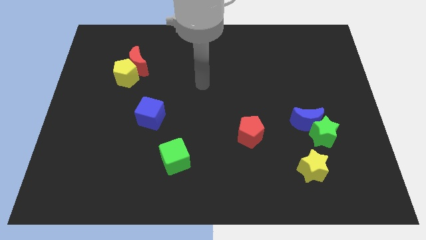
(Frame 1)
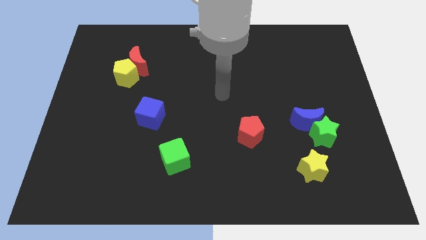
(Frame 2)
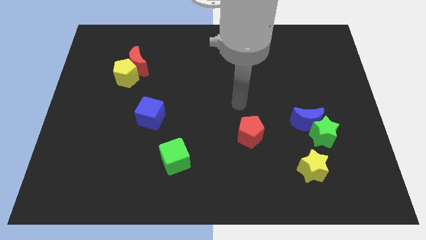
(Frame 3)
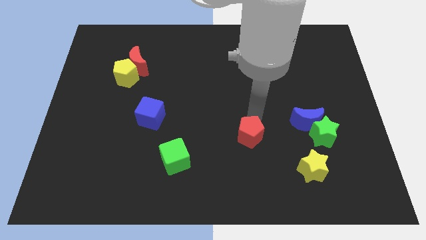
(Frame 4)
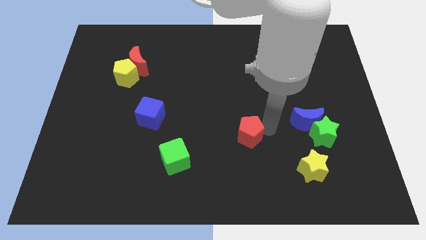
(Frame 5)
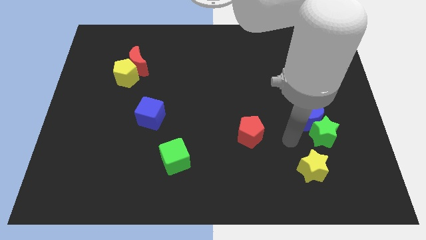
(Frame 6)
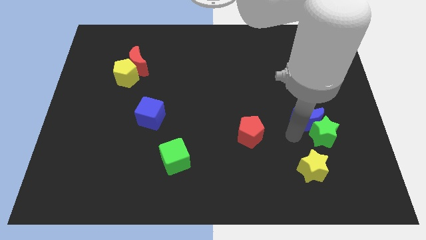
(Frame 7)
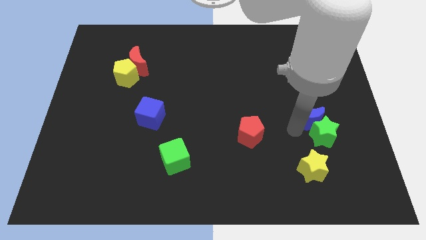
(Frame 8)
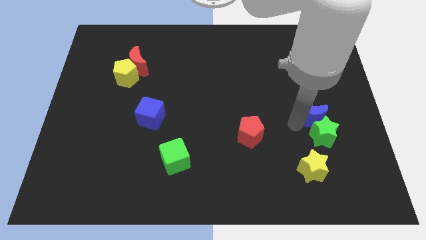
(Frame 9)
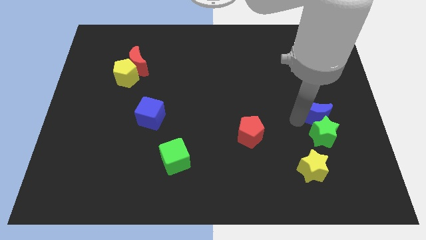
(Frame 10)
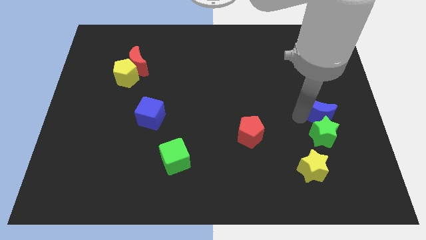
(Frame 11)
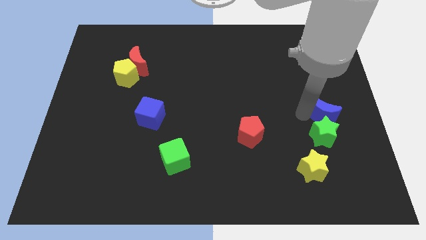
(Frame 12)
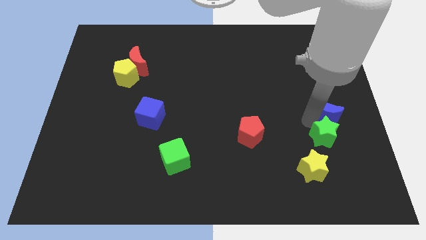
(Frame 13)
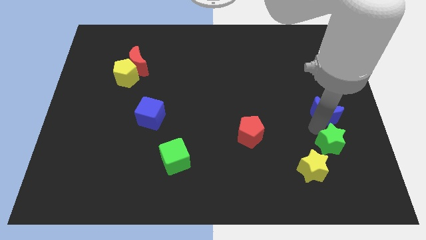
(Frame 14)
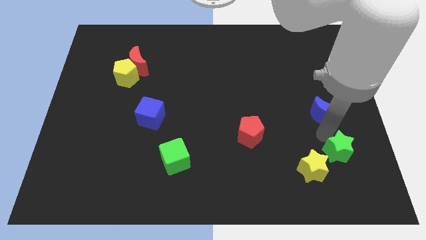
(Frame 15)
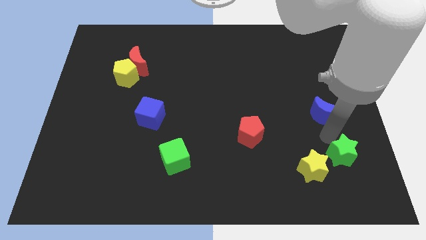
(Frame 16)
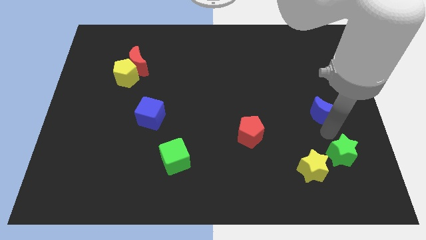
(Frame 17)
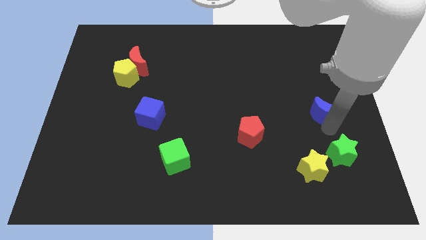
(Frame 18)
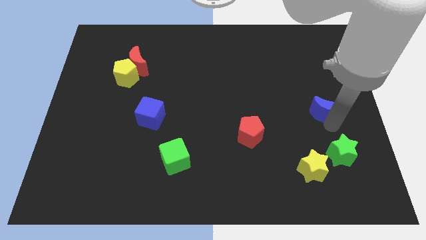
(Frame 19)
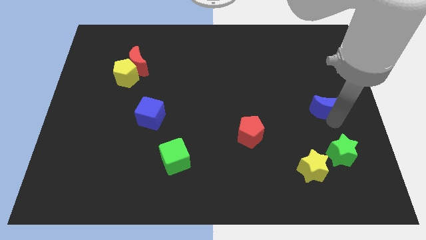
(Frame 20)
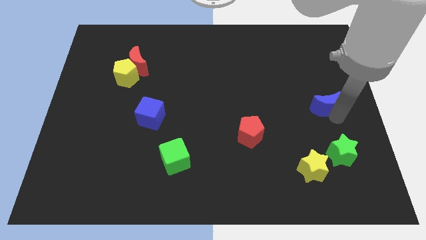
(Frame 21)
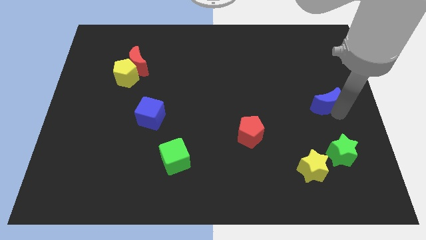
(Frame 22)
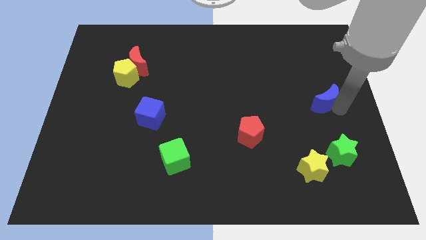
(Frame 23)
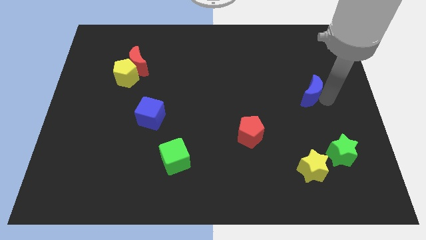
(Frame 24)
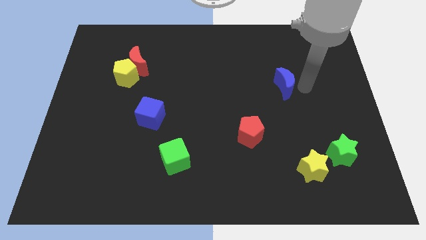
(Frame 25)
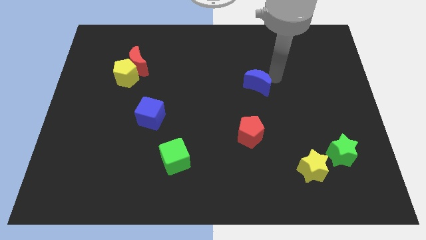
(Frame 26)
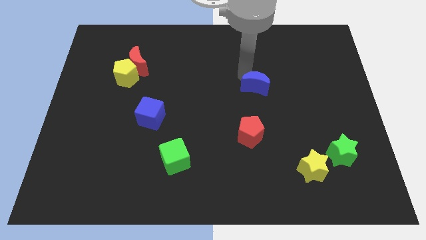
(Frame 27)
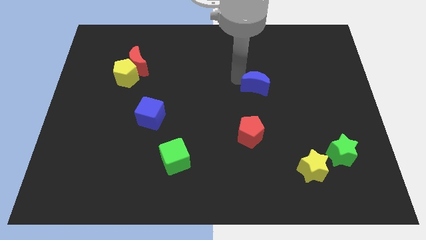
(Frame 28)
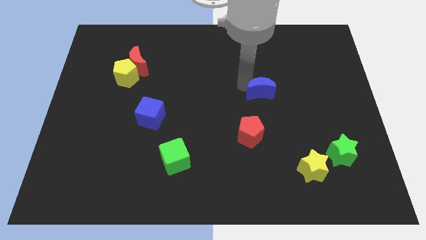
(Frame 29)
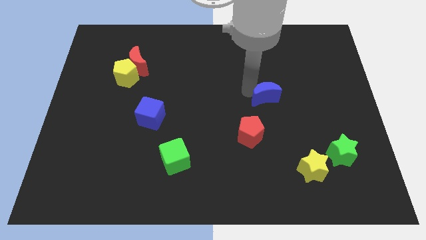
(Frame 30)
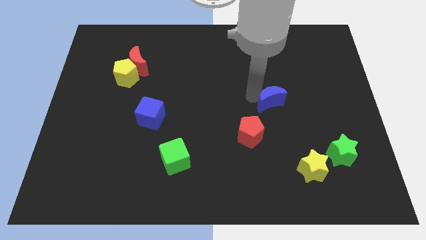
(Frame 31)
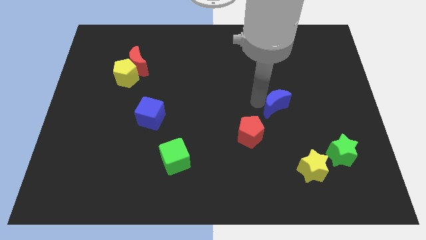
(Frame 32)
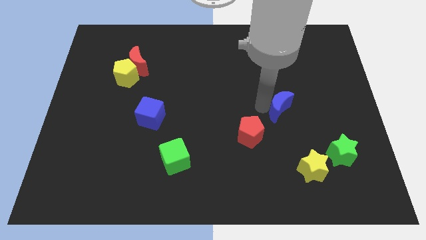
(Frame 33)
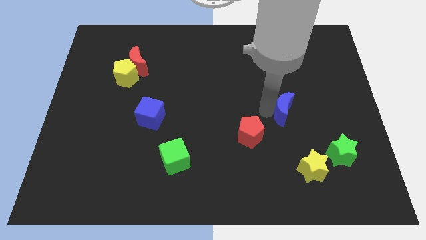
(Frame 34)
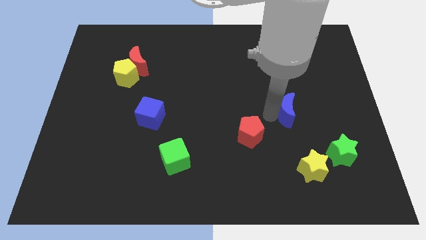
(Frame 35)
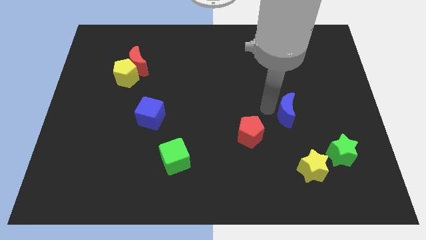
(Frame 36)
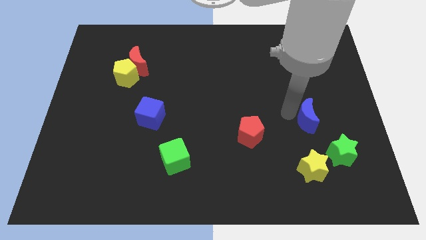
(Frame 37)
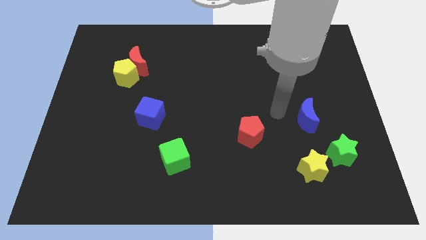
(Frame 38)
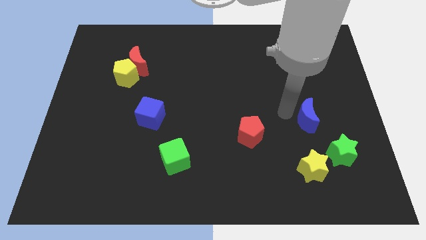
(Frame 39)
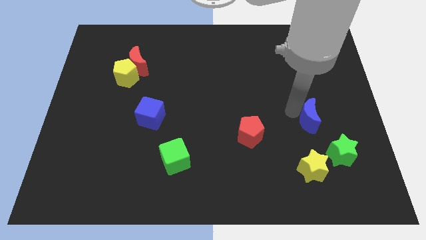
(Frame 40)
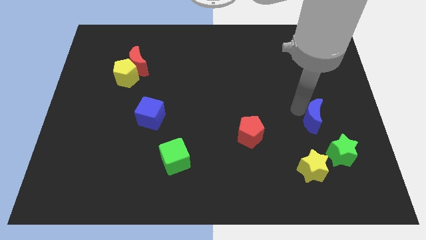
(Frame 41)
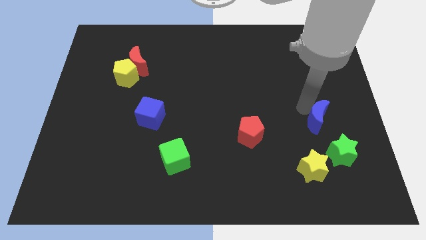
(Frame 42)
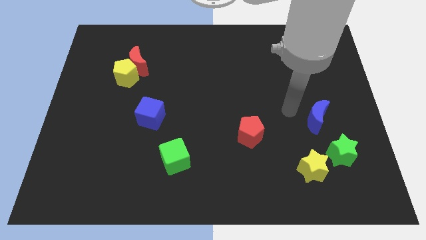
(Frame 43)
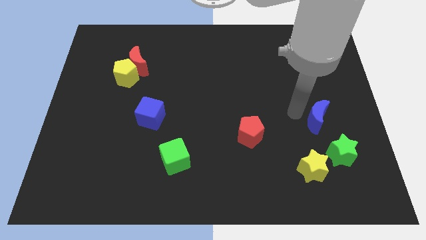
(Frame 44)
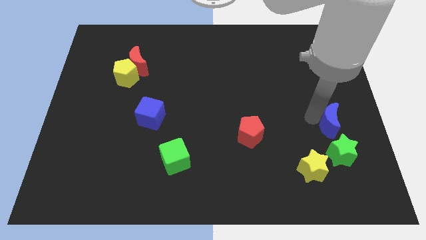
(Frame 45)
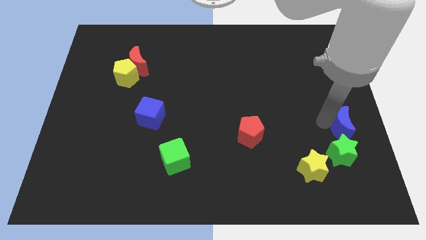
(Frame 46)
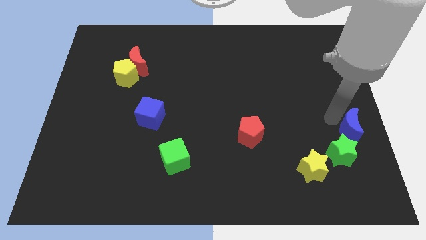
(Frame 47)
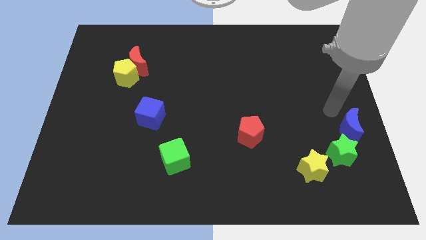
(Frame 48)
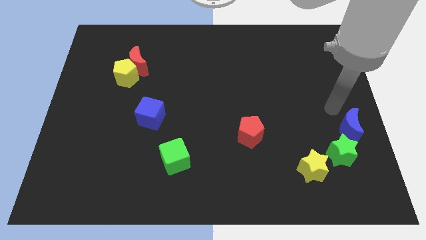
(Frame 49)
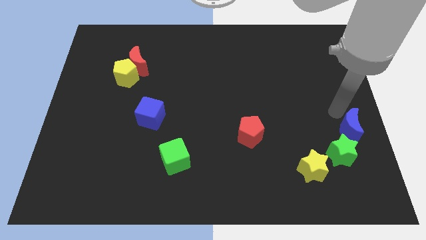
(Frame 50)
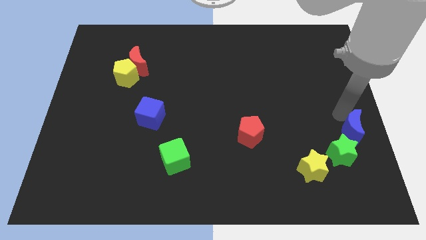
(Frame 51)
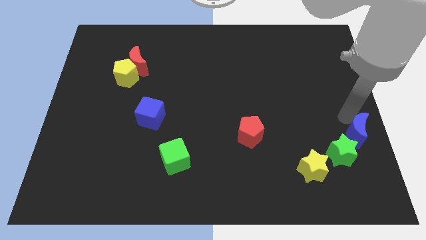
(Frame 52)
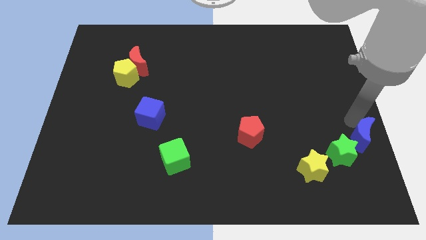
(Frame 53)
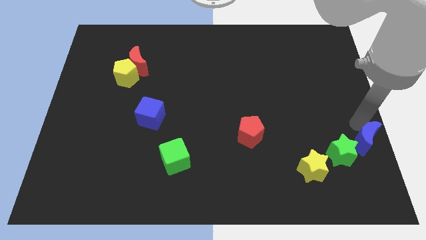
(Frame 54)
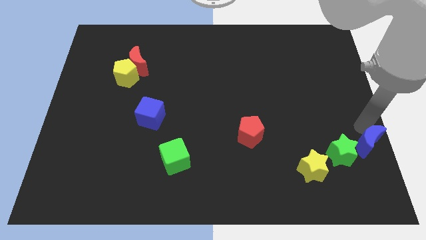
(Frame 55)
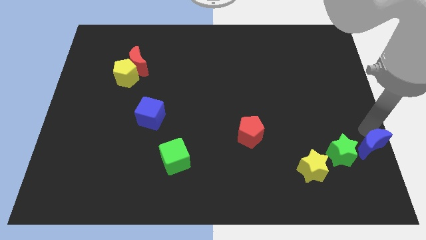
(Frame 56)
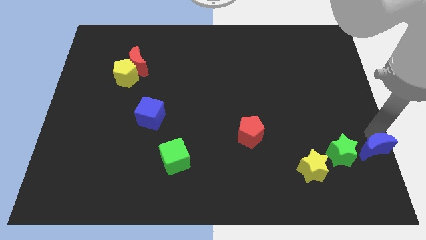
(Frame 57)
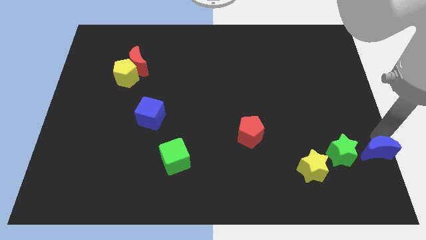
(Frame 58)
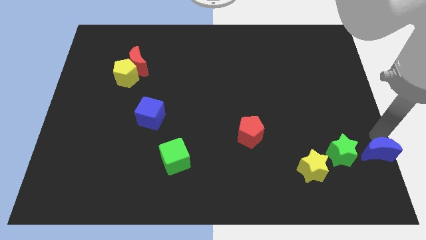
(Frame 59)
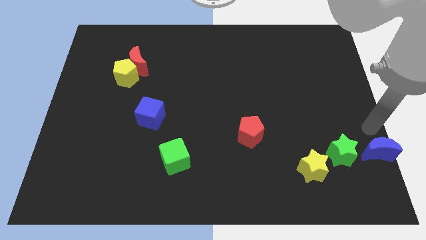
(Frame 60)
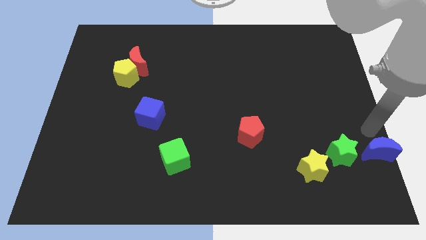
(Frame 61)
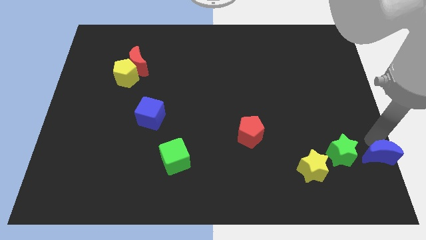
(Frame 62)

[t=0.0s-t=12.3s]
slide the blue moon to the lower right corner

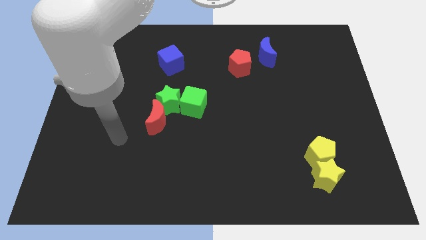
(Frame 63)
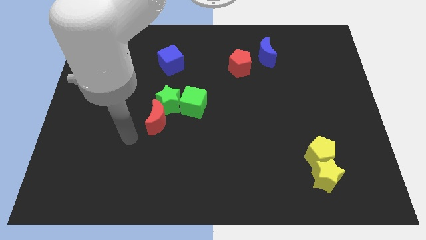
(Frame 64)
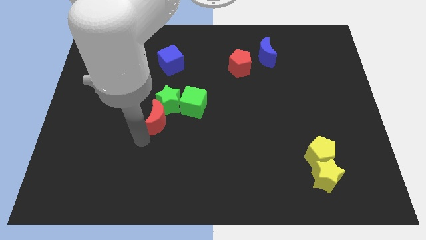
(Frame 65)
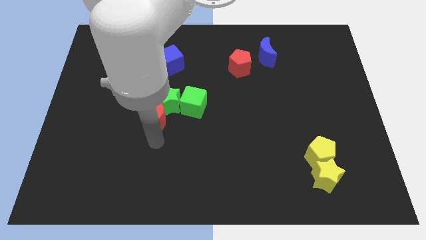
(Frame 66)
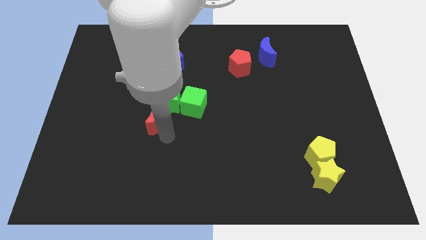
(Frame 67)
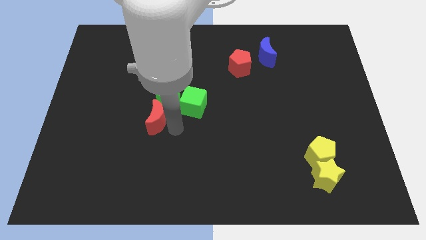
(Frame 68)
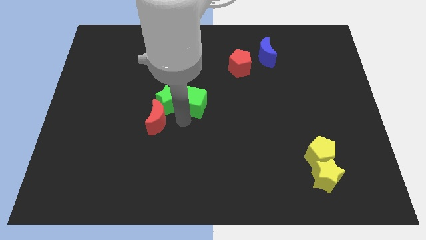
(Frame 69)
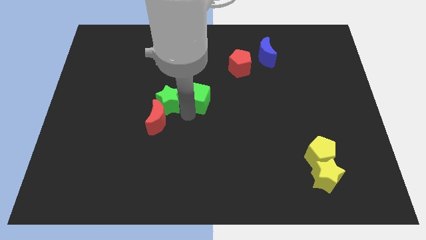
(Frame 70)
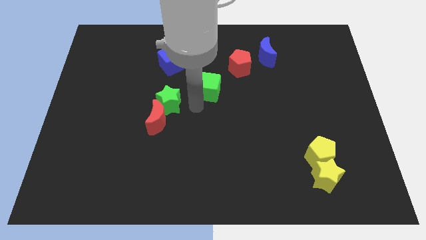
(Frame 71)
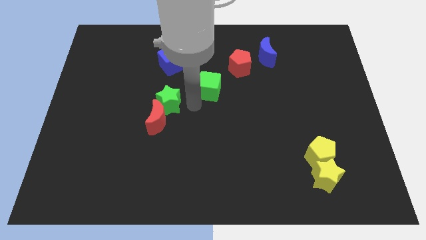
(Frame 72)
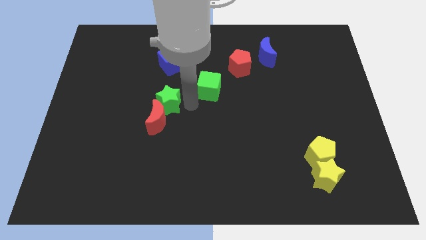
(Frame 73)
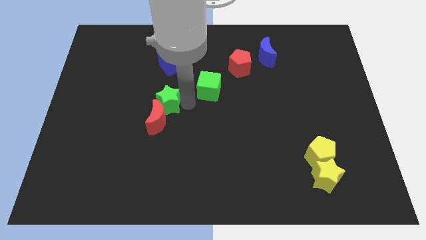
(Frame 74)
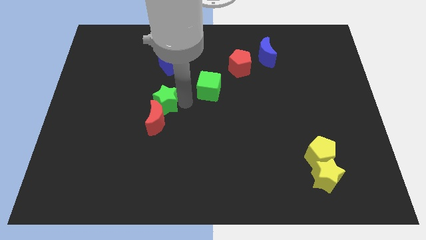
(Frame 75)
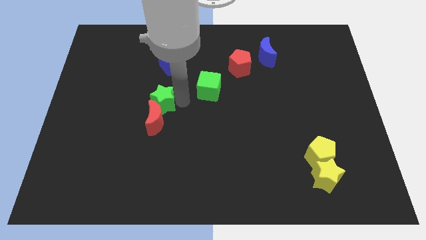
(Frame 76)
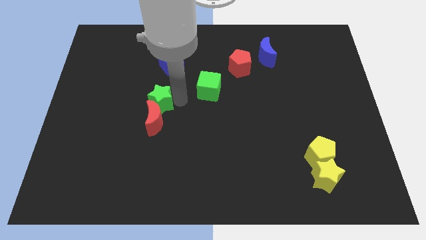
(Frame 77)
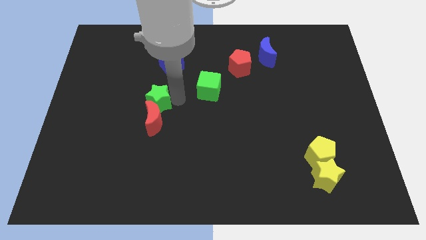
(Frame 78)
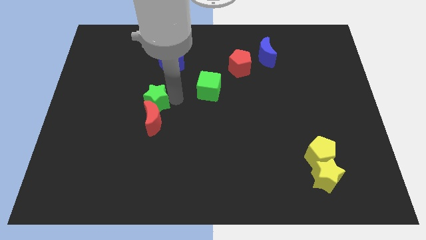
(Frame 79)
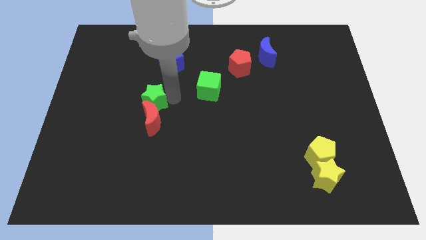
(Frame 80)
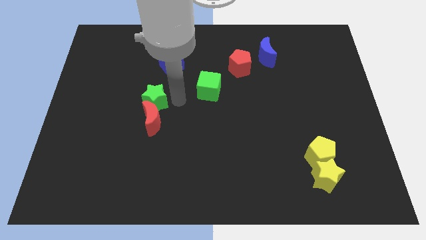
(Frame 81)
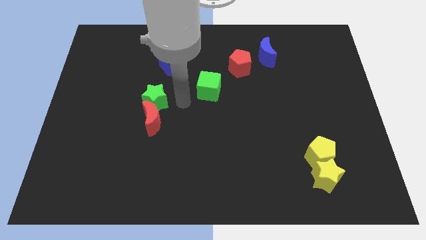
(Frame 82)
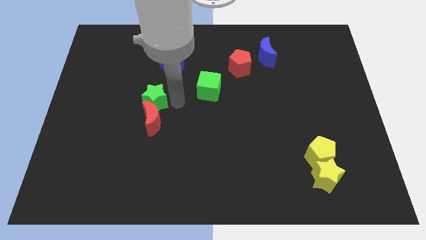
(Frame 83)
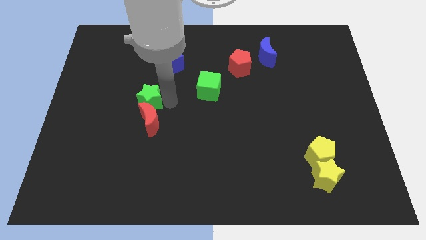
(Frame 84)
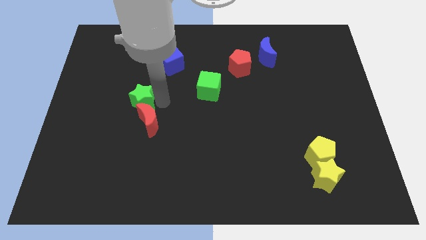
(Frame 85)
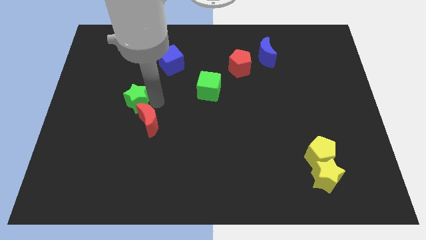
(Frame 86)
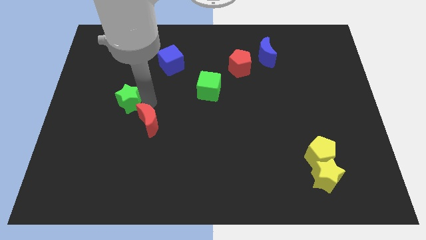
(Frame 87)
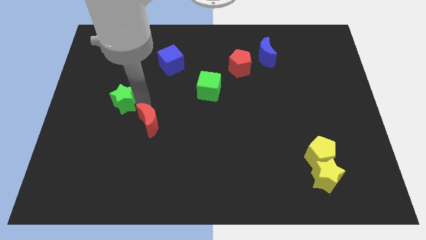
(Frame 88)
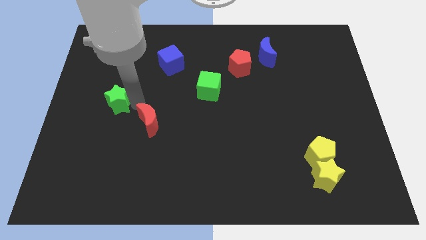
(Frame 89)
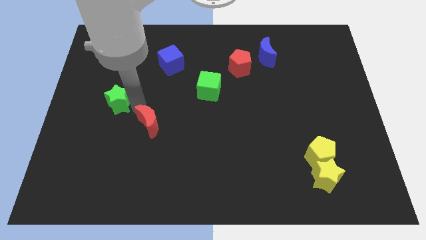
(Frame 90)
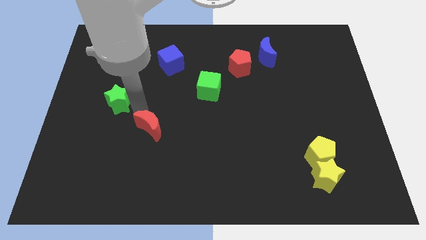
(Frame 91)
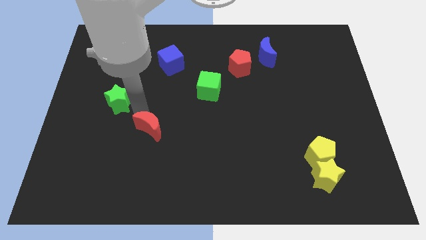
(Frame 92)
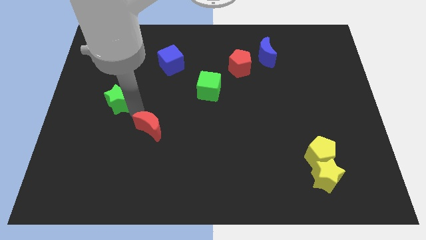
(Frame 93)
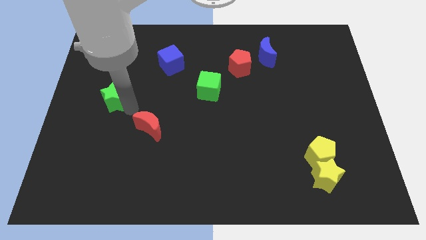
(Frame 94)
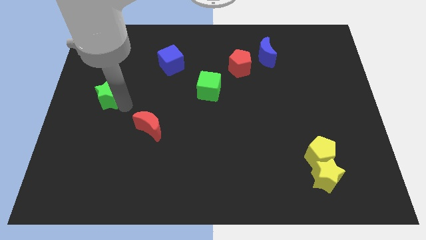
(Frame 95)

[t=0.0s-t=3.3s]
put the green star to the left side
